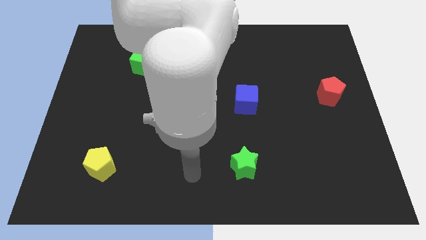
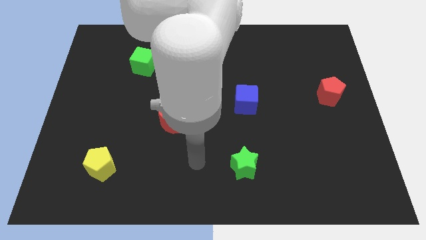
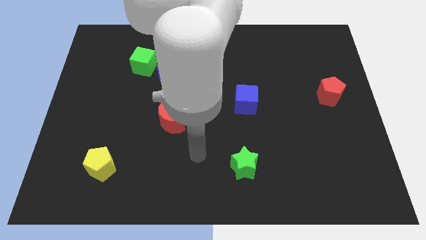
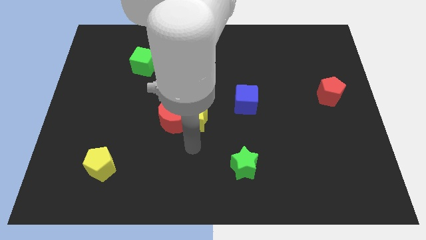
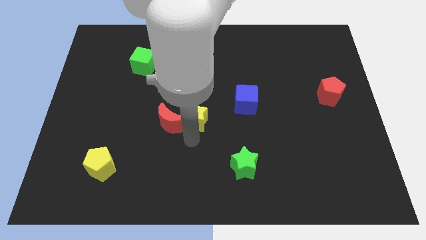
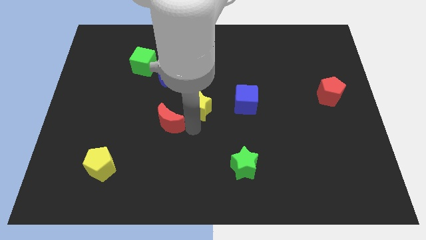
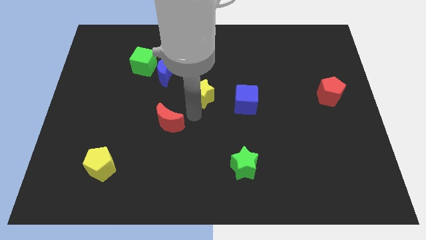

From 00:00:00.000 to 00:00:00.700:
separate the red moon from the yellow star

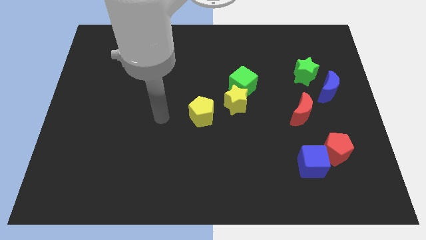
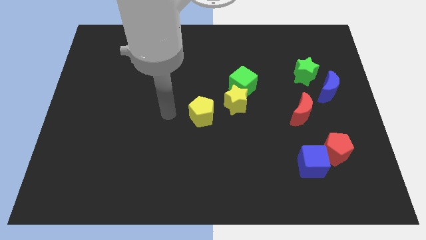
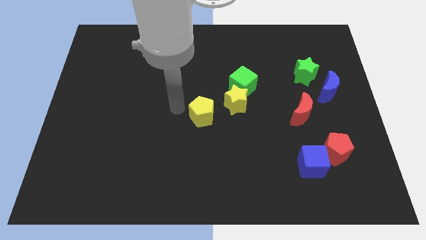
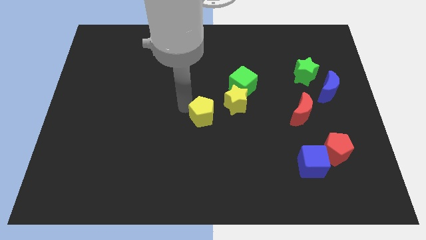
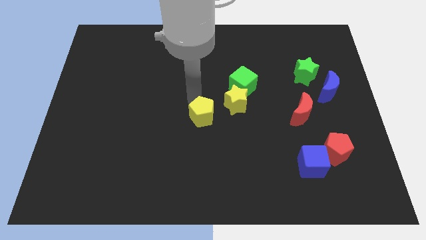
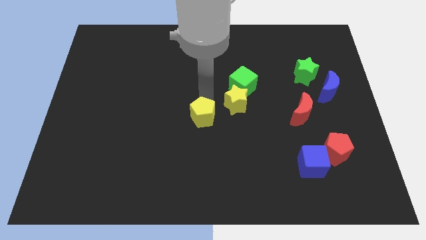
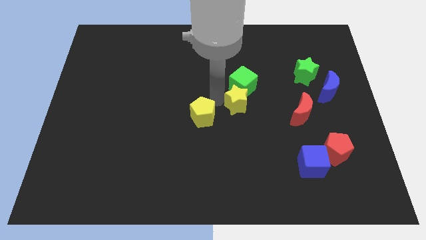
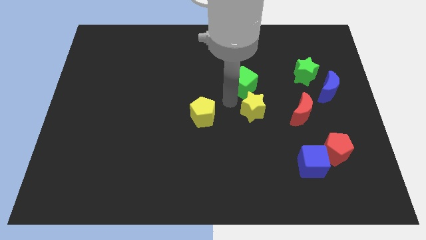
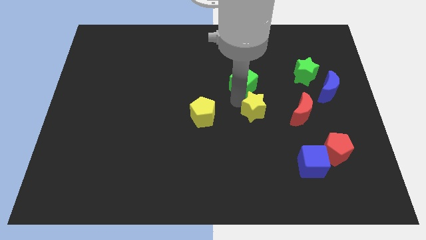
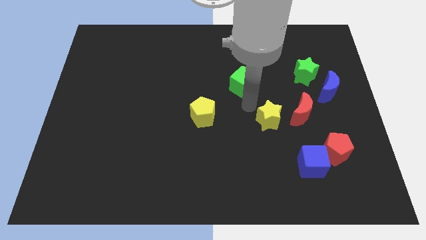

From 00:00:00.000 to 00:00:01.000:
separate the green cube from the yellow star

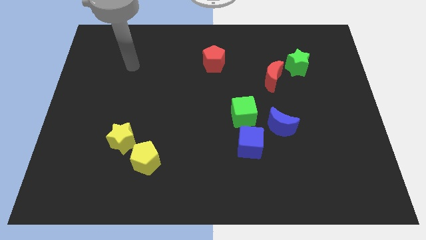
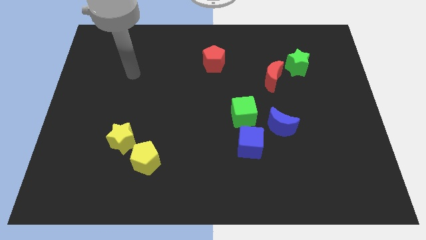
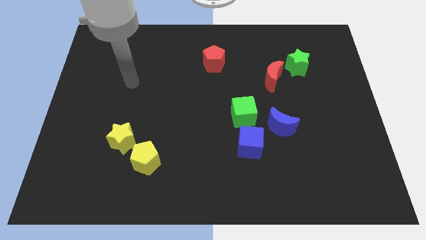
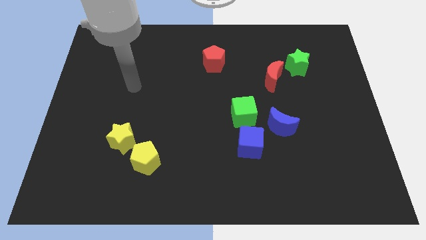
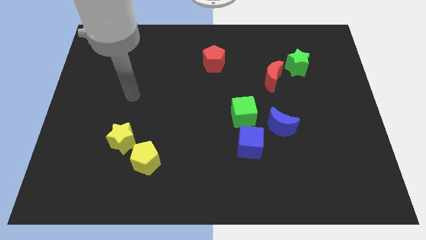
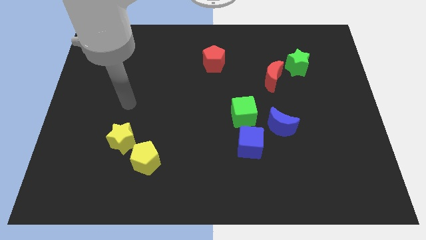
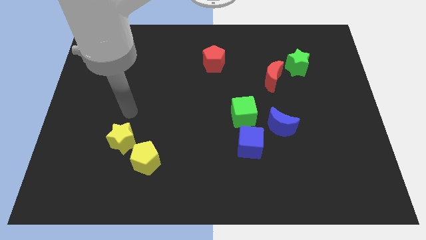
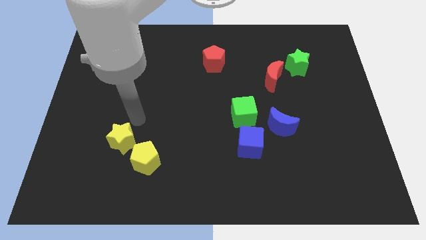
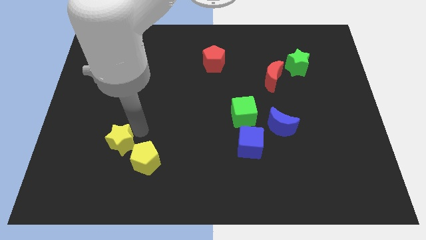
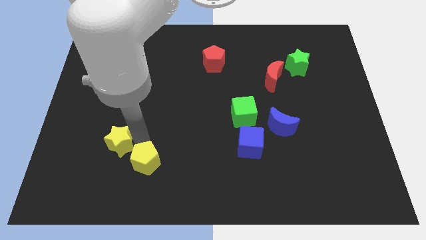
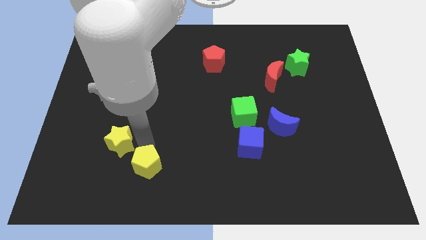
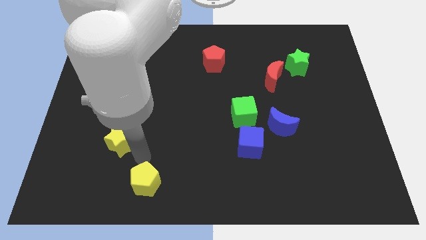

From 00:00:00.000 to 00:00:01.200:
pull the yellow star apart from the yellow pentagon

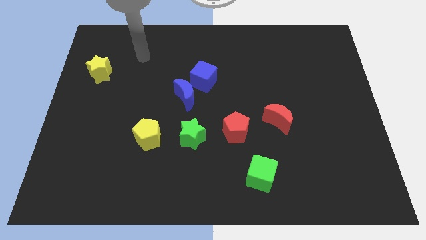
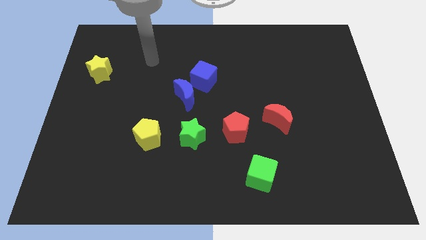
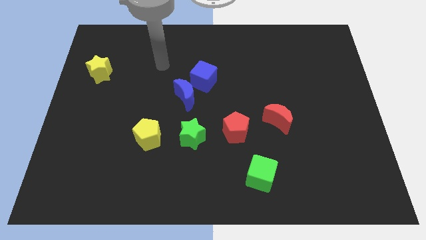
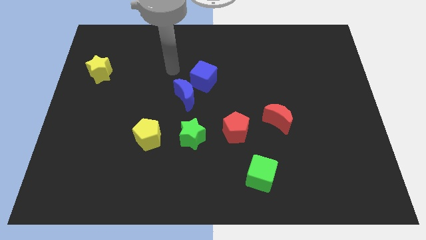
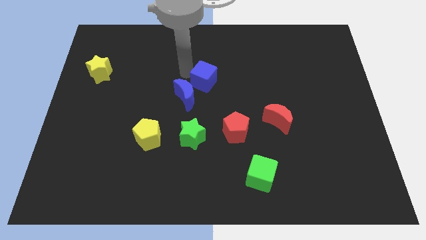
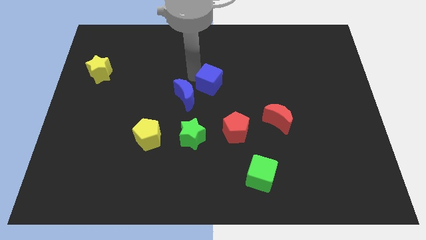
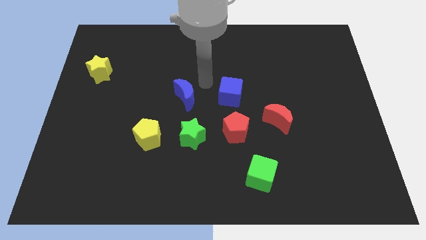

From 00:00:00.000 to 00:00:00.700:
separate the blue moon from the blue cube

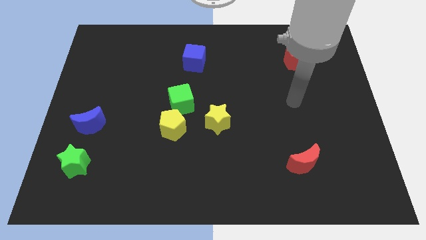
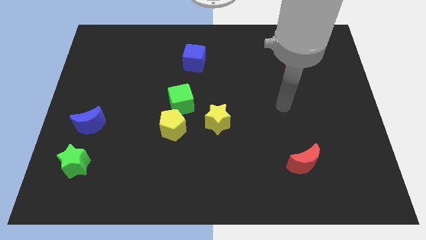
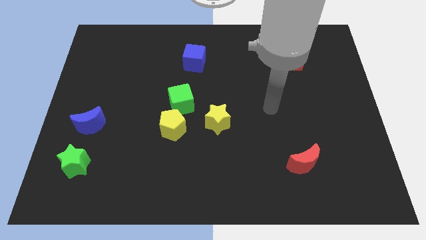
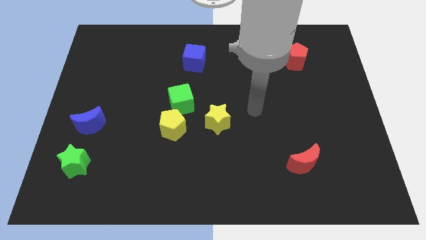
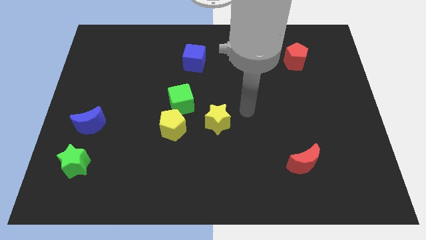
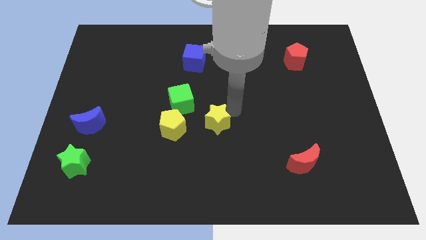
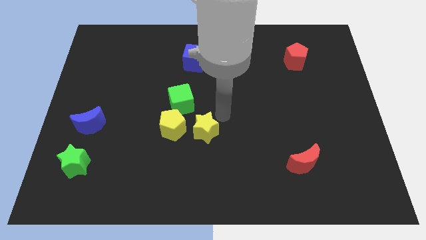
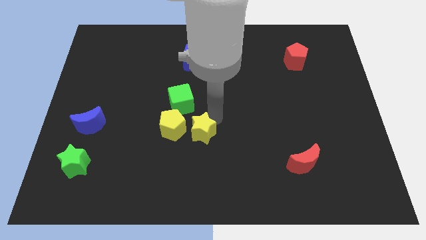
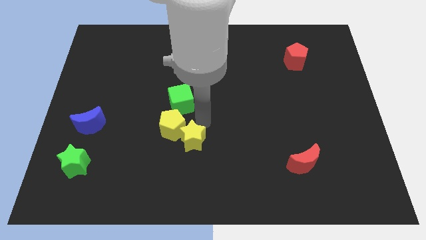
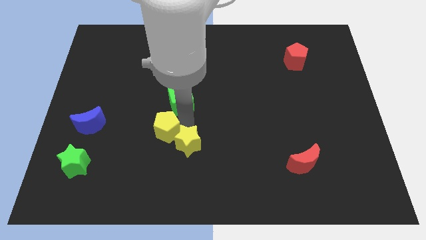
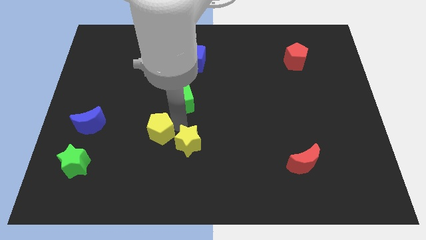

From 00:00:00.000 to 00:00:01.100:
separate the green cube from the yellow pentagon and yellow star

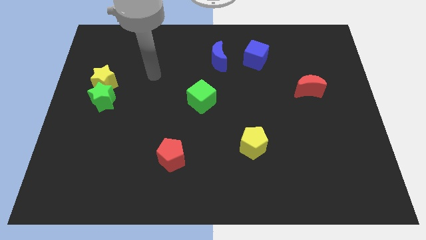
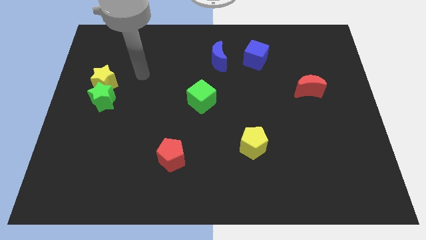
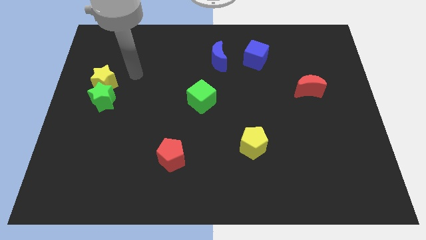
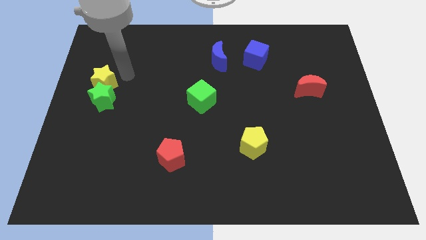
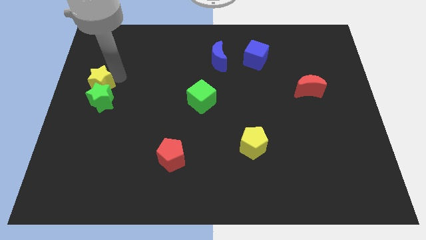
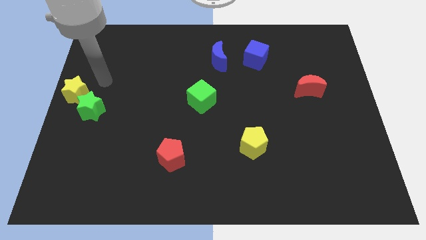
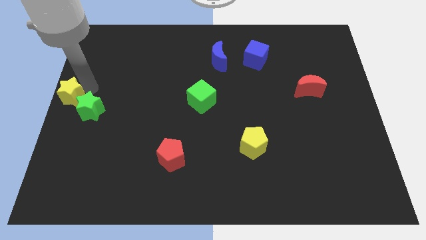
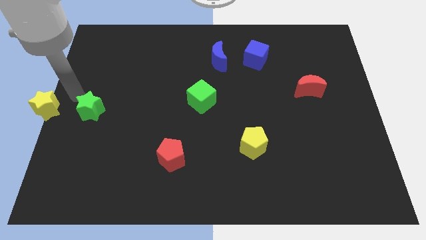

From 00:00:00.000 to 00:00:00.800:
separate the green star from the yellow star

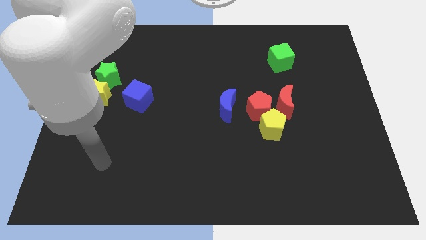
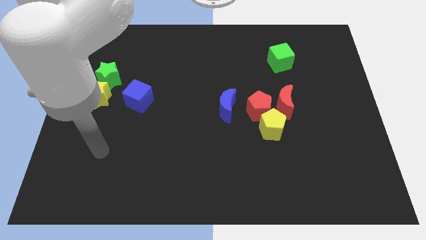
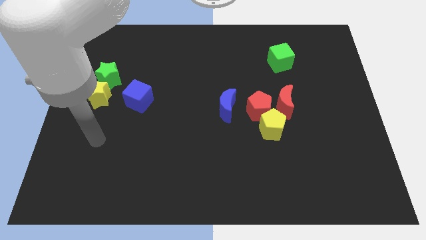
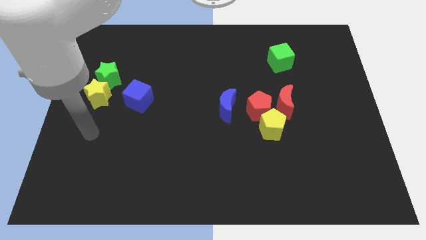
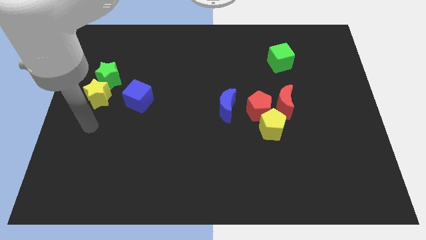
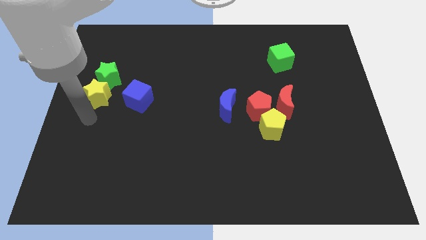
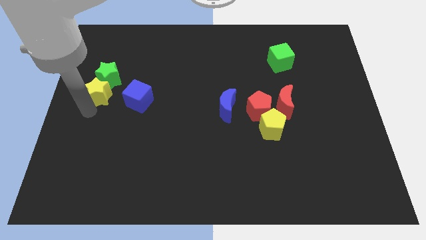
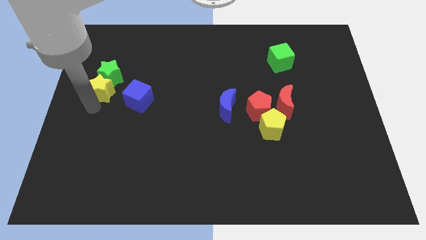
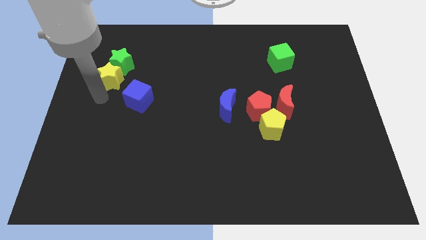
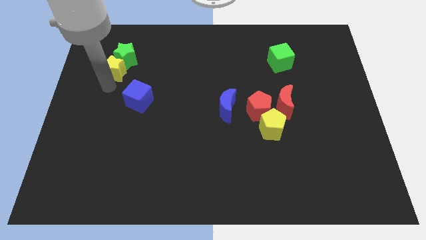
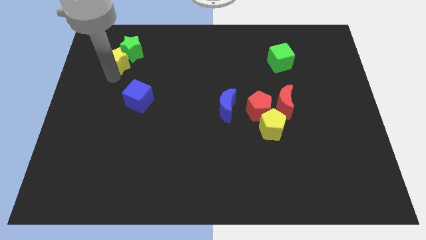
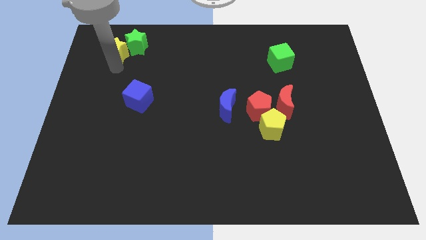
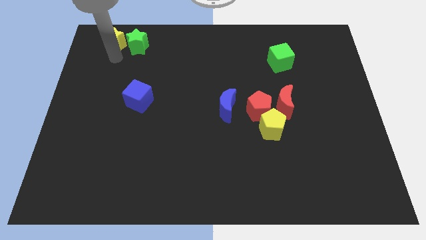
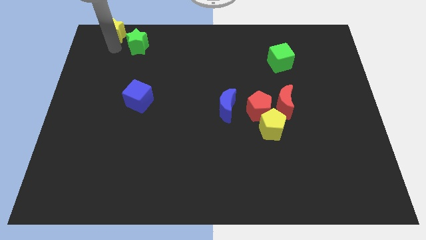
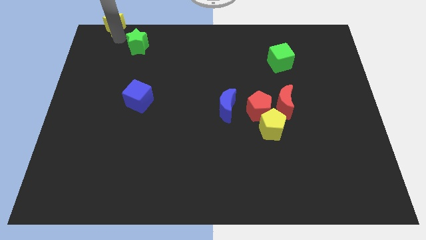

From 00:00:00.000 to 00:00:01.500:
move the green star away from the yellow star

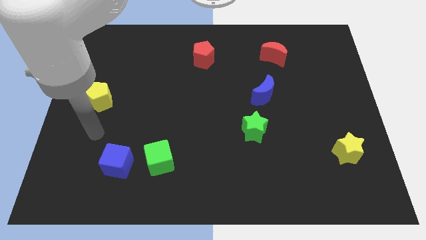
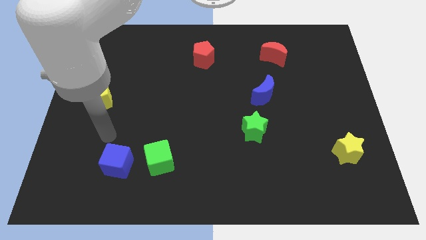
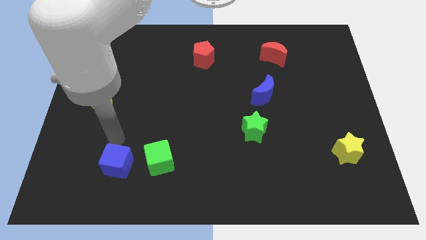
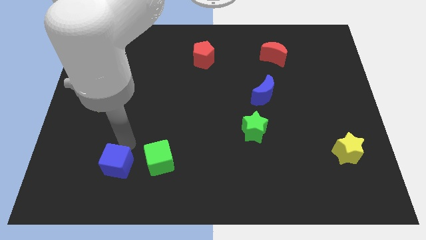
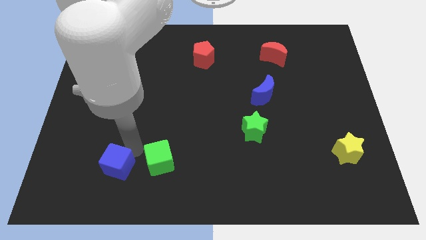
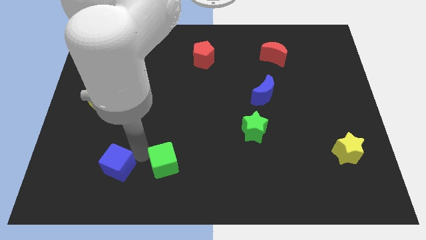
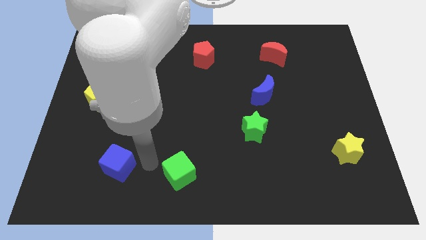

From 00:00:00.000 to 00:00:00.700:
move the blue cube away from the green cube

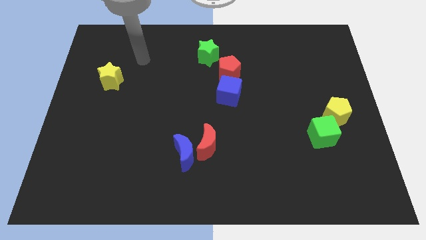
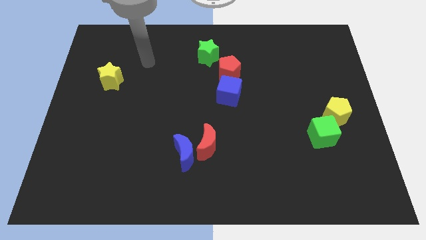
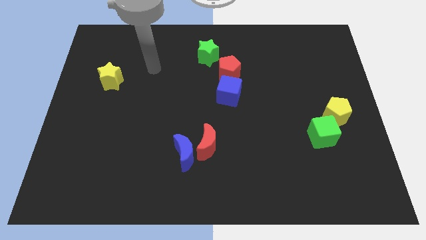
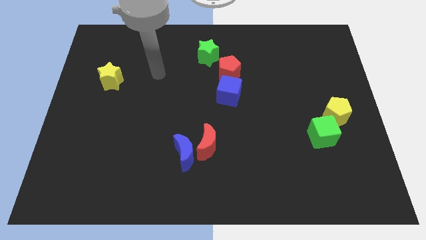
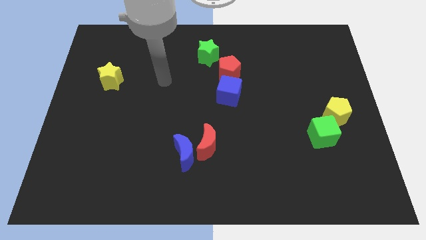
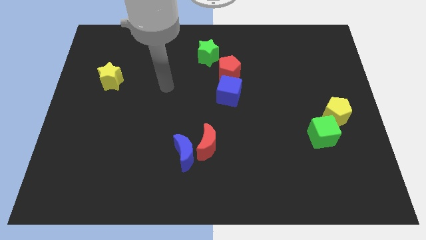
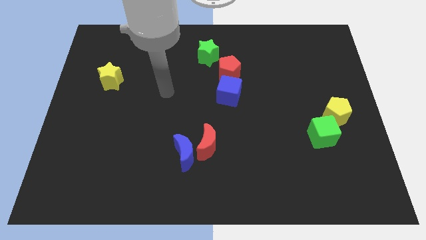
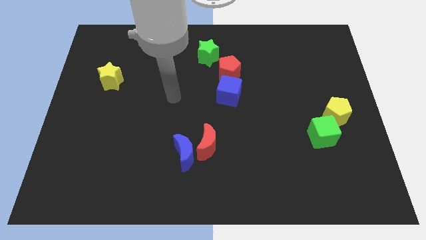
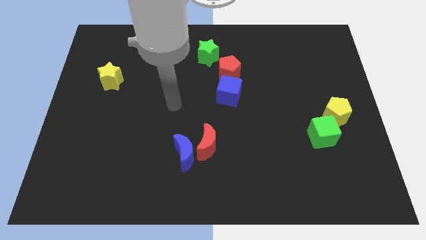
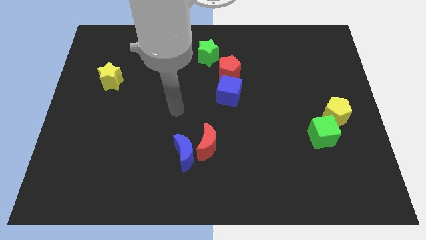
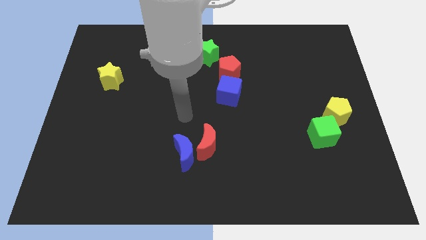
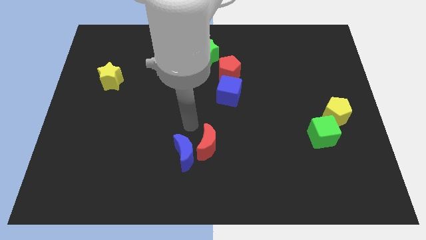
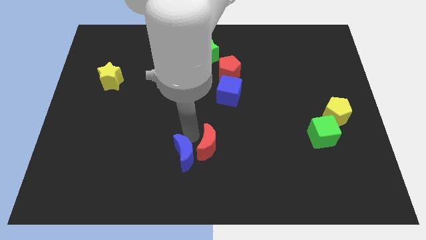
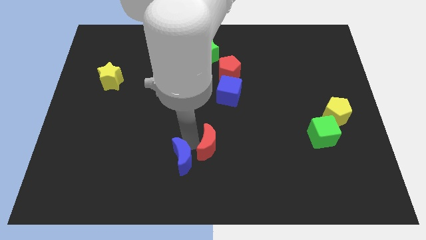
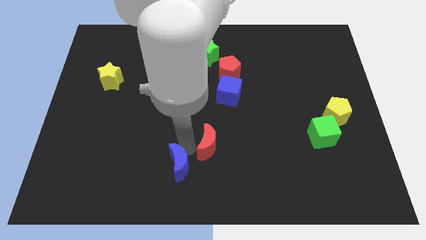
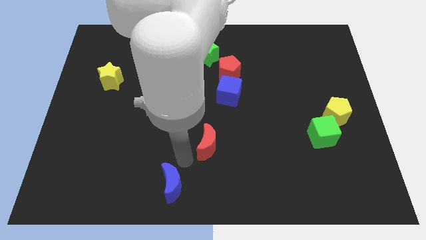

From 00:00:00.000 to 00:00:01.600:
move the red moon away from the blue moon
